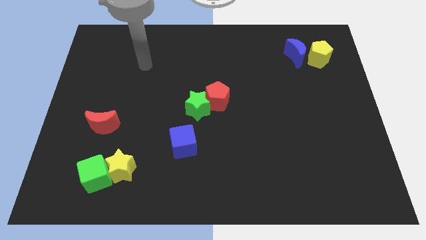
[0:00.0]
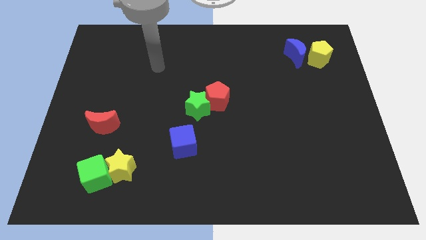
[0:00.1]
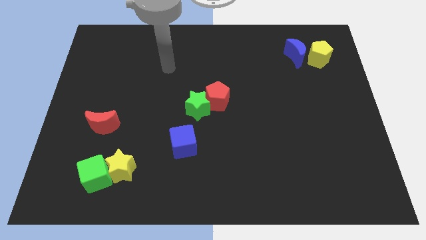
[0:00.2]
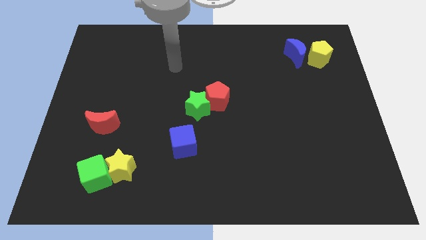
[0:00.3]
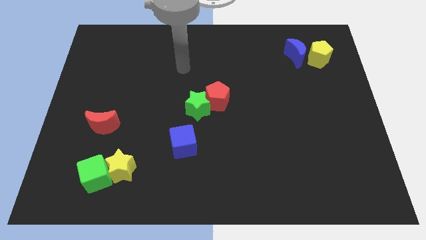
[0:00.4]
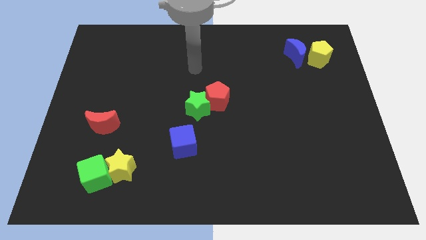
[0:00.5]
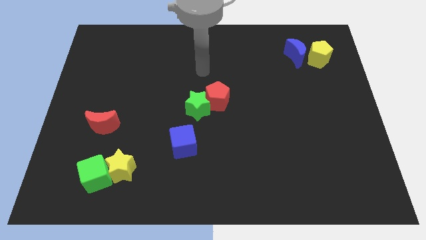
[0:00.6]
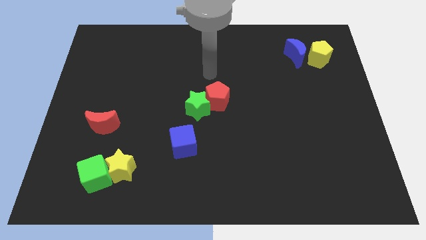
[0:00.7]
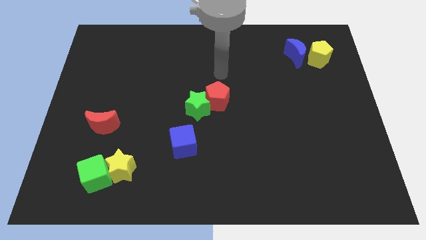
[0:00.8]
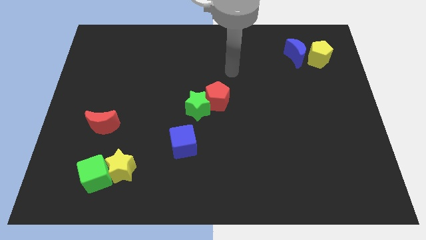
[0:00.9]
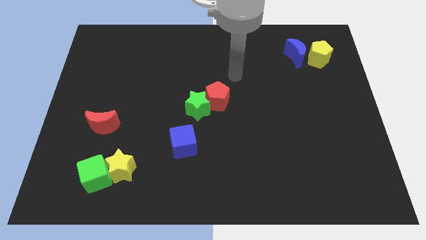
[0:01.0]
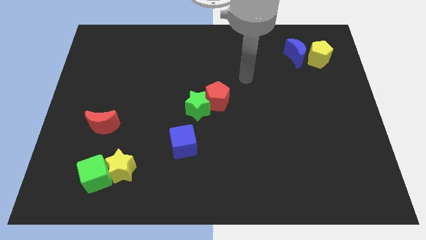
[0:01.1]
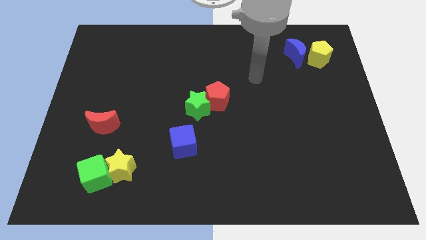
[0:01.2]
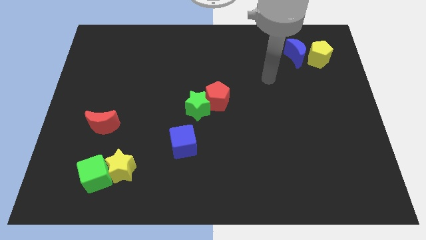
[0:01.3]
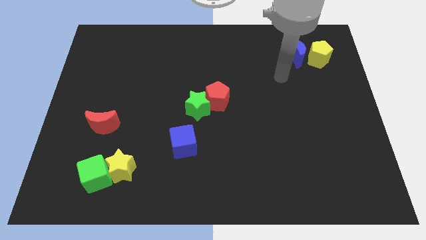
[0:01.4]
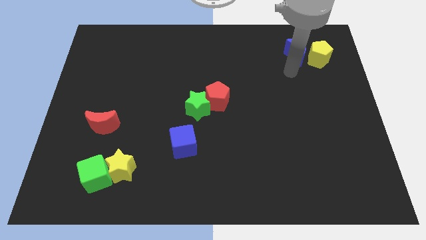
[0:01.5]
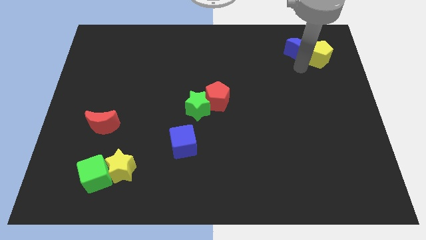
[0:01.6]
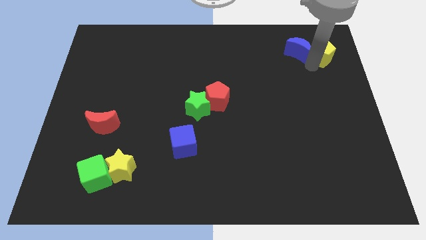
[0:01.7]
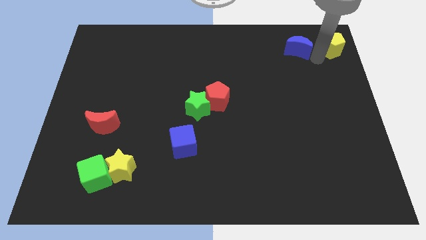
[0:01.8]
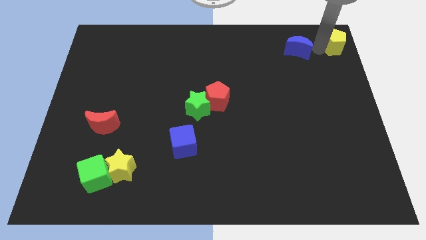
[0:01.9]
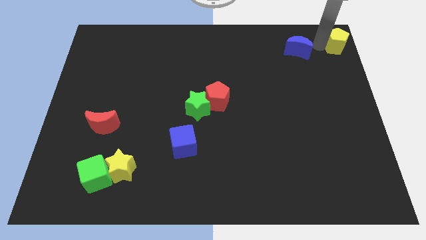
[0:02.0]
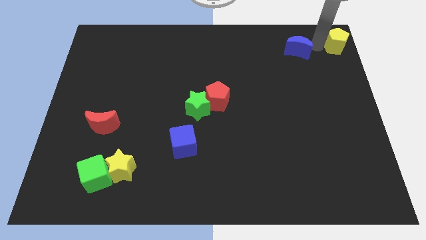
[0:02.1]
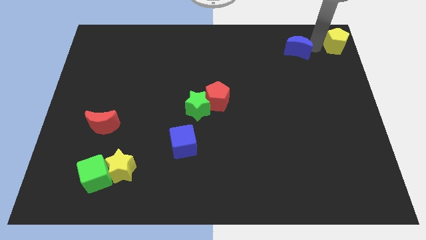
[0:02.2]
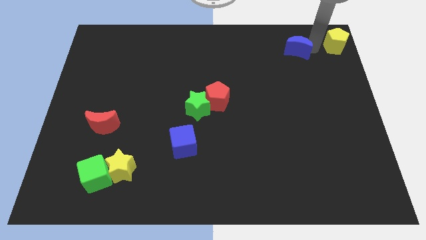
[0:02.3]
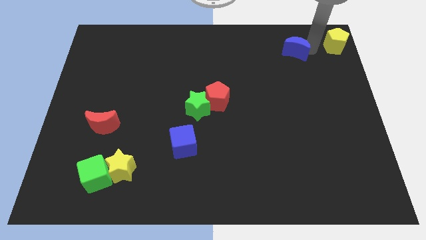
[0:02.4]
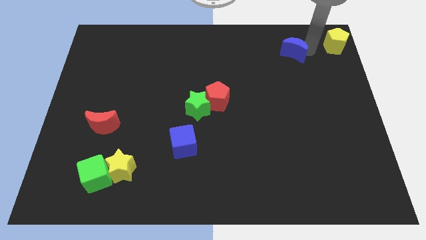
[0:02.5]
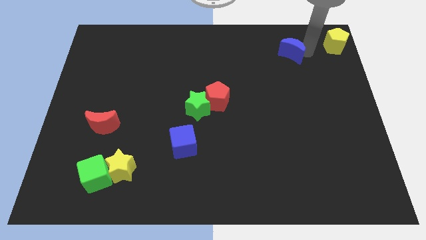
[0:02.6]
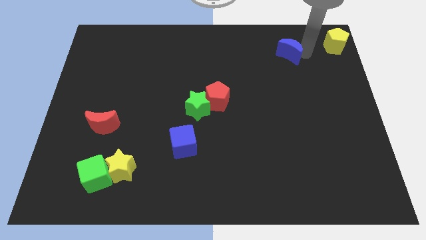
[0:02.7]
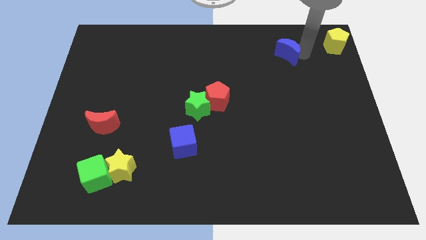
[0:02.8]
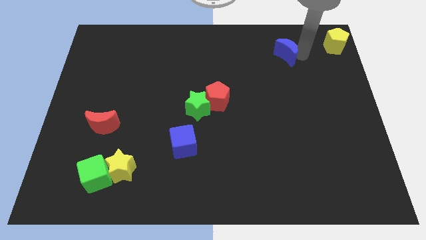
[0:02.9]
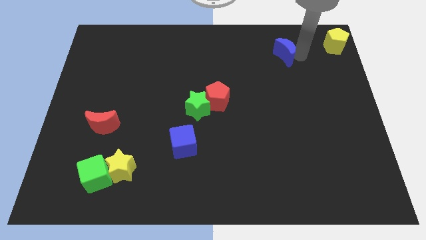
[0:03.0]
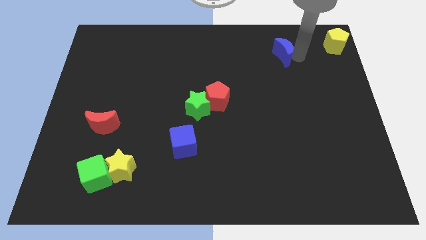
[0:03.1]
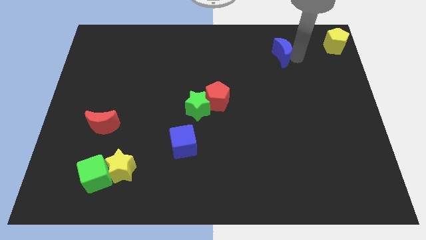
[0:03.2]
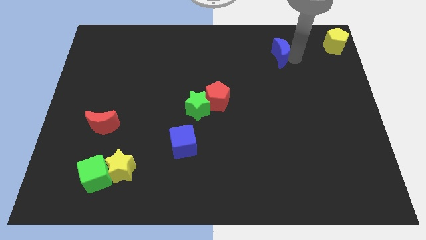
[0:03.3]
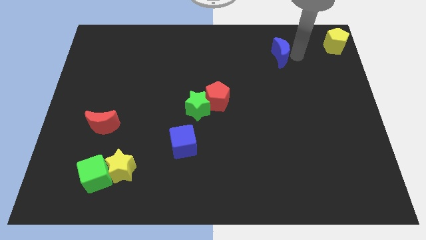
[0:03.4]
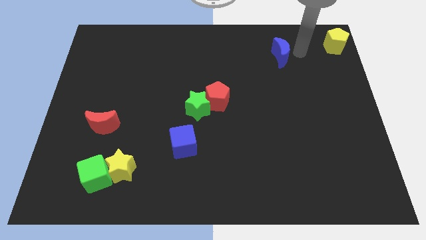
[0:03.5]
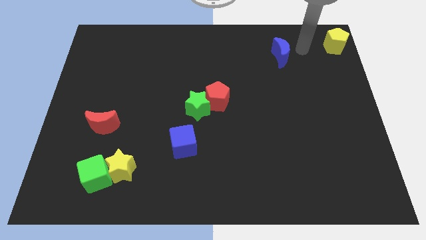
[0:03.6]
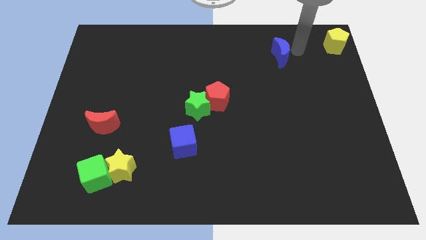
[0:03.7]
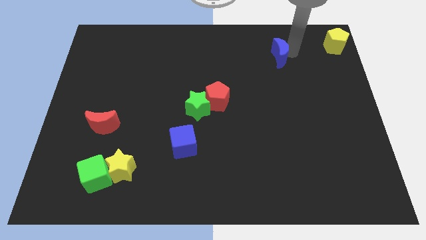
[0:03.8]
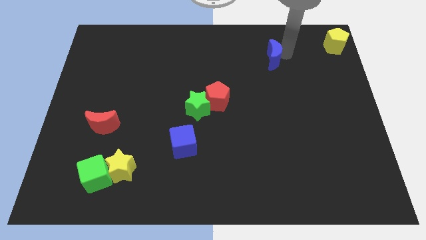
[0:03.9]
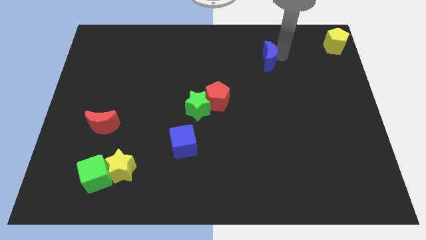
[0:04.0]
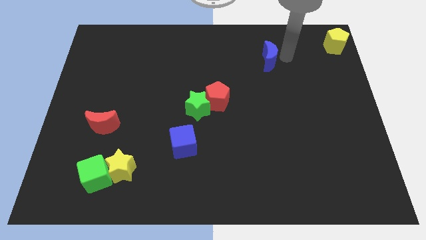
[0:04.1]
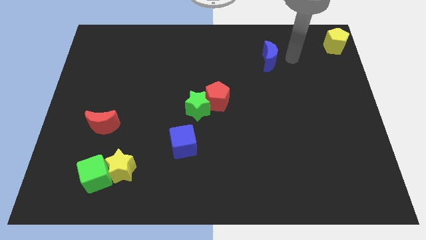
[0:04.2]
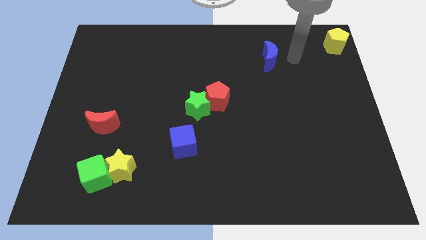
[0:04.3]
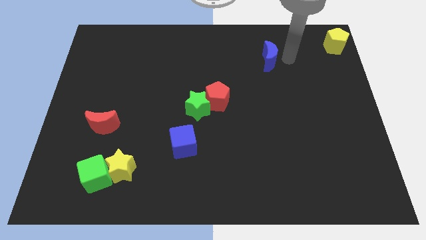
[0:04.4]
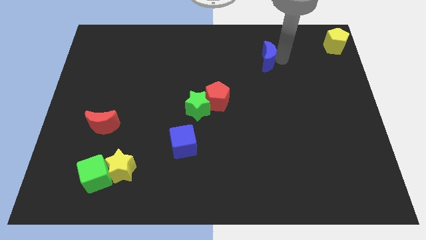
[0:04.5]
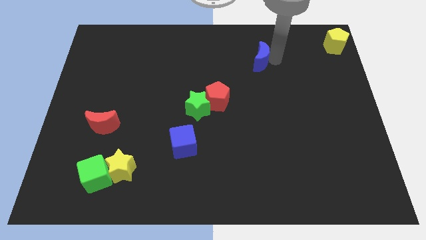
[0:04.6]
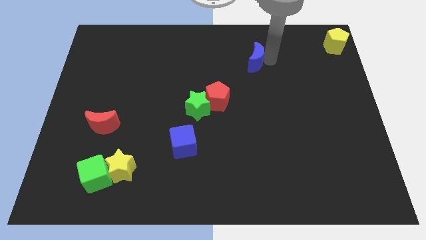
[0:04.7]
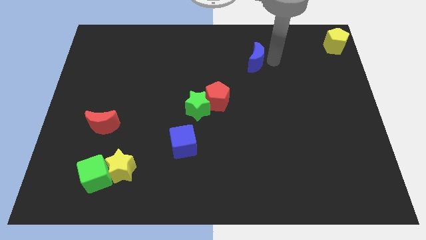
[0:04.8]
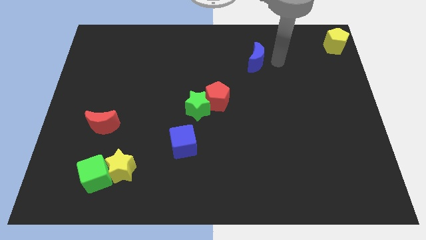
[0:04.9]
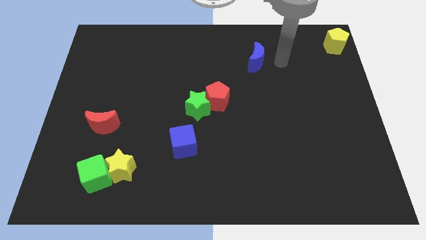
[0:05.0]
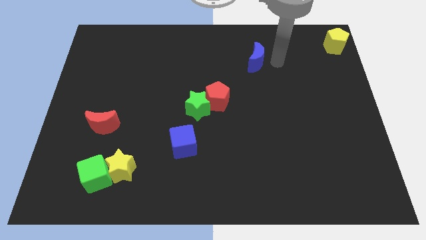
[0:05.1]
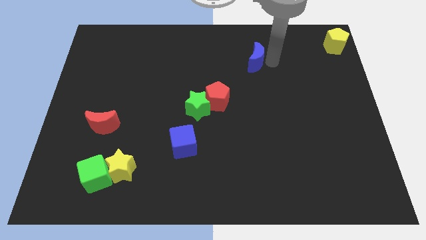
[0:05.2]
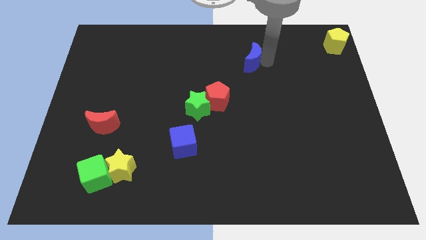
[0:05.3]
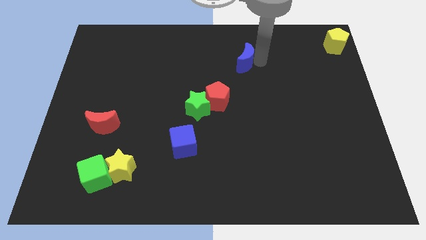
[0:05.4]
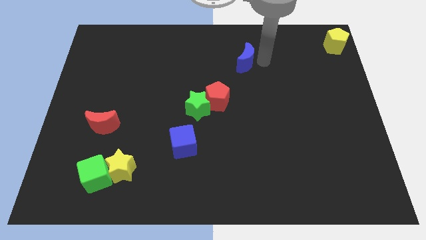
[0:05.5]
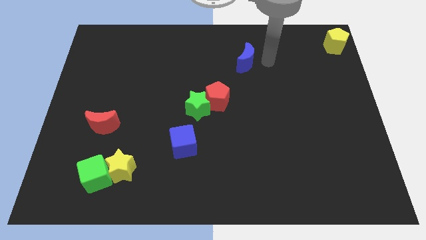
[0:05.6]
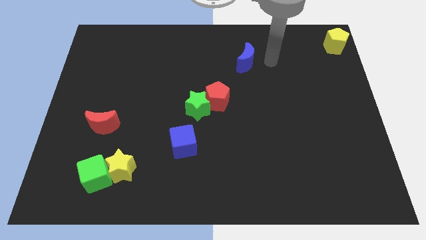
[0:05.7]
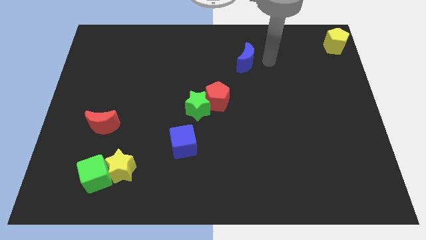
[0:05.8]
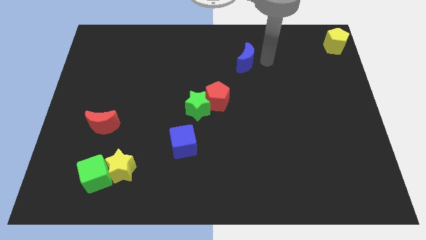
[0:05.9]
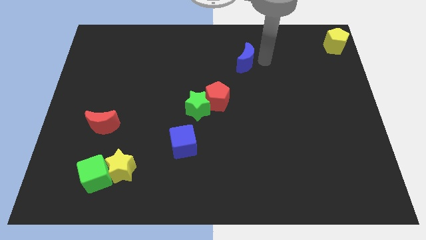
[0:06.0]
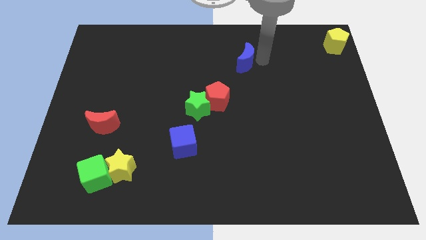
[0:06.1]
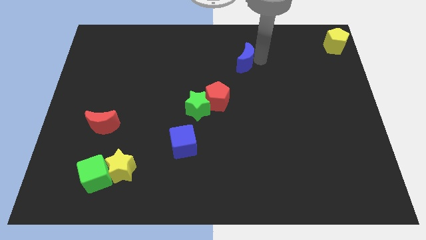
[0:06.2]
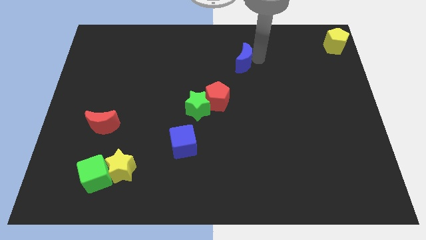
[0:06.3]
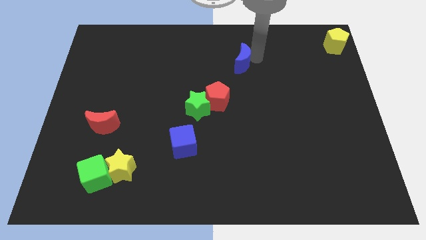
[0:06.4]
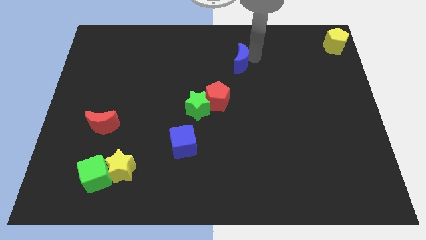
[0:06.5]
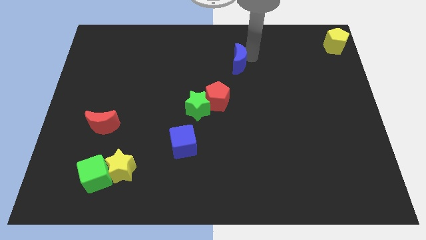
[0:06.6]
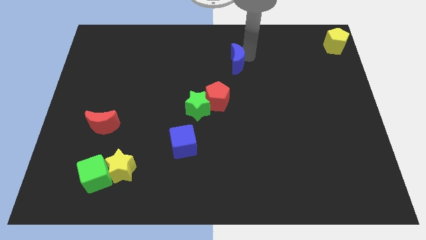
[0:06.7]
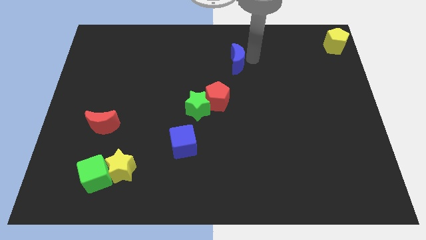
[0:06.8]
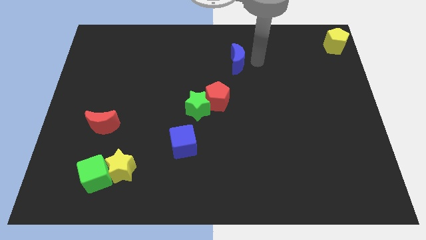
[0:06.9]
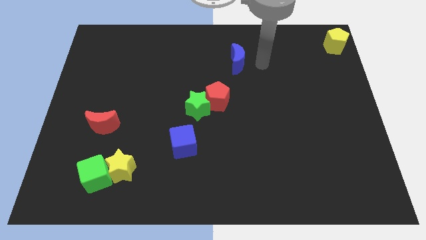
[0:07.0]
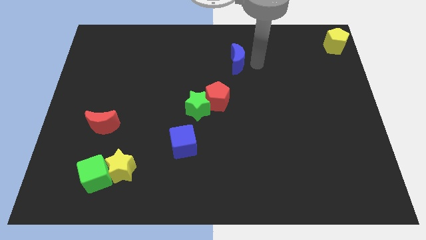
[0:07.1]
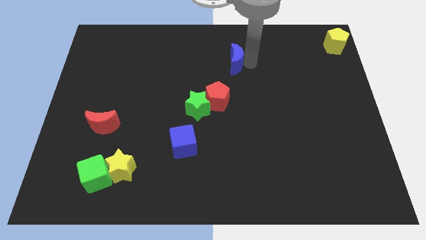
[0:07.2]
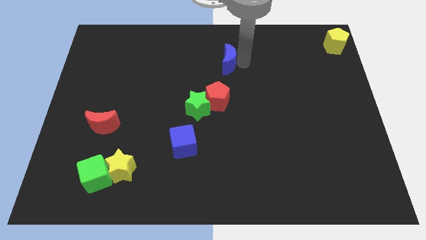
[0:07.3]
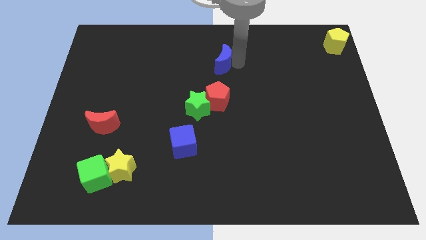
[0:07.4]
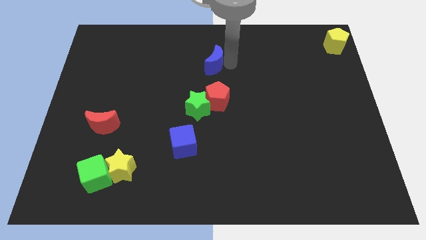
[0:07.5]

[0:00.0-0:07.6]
move the blue moon left

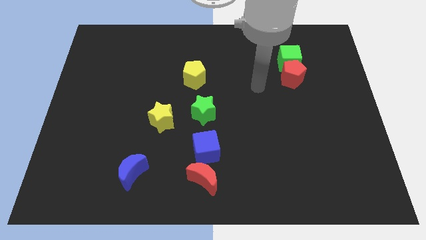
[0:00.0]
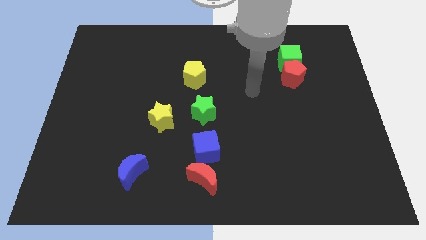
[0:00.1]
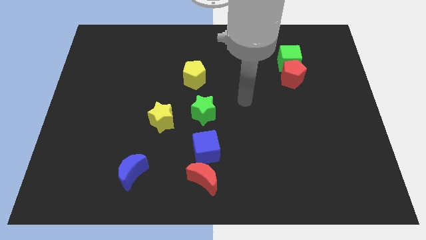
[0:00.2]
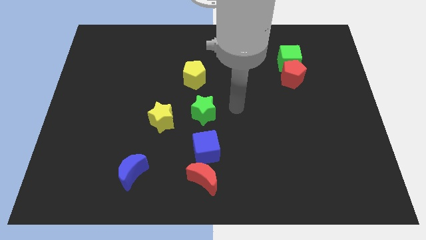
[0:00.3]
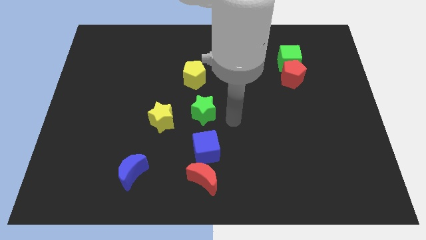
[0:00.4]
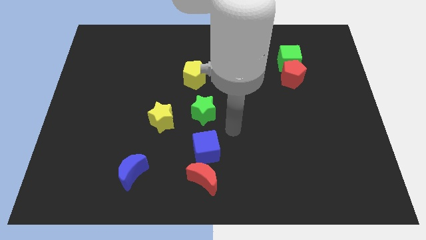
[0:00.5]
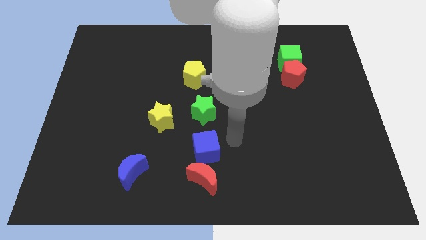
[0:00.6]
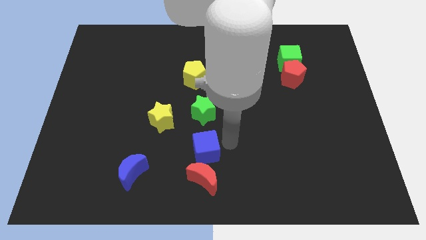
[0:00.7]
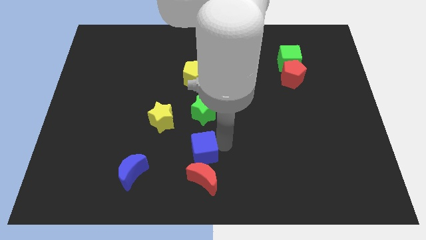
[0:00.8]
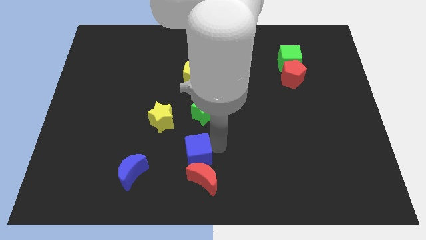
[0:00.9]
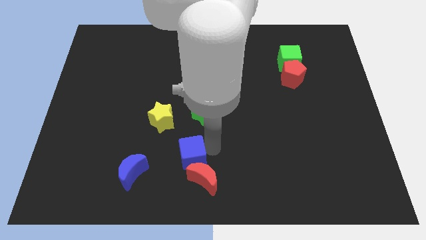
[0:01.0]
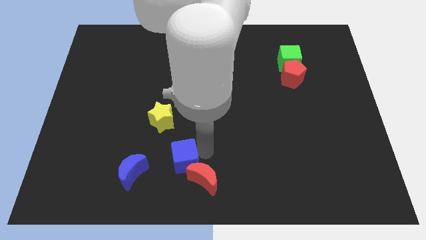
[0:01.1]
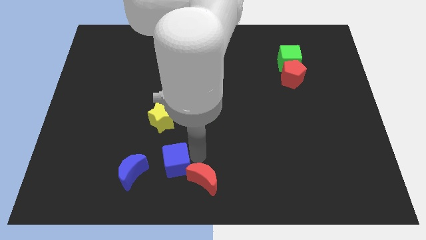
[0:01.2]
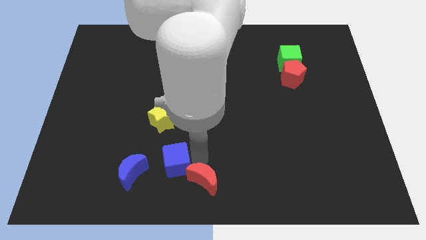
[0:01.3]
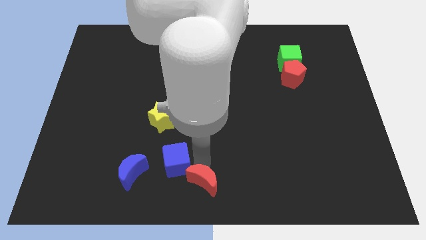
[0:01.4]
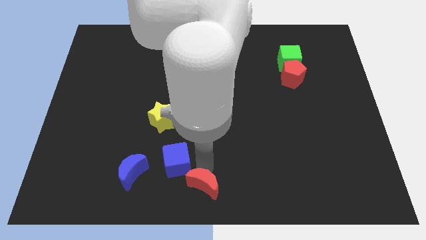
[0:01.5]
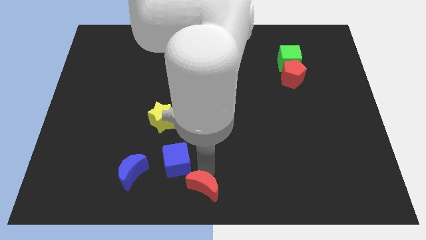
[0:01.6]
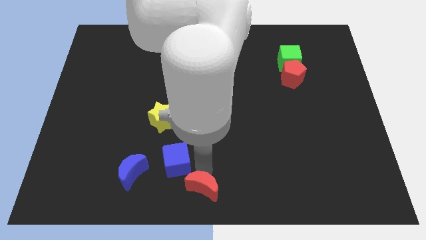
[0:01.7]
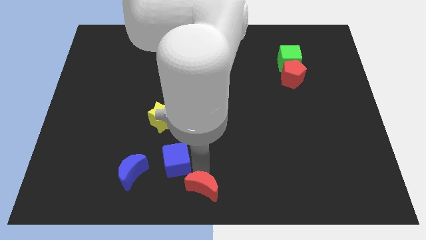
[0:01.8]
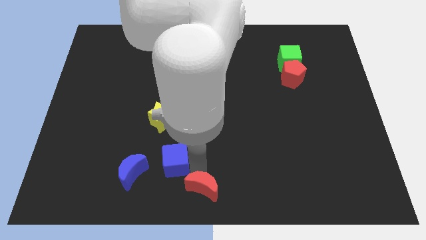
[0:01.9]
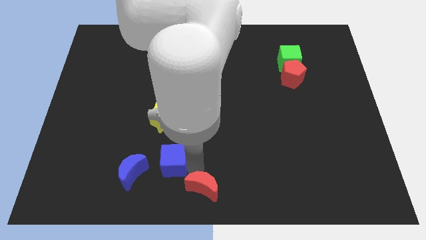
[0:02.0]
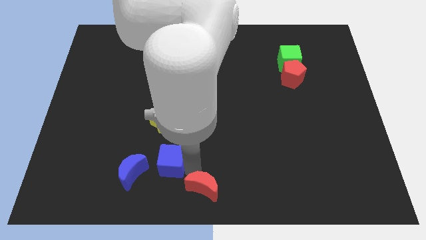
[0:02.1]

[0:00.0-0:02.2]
slide the blue cube slightly to the left
